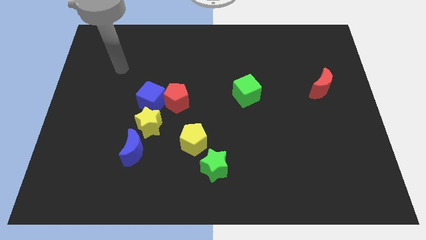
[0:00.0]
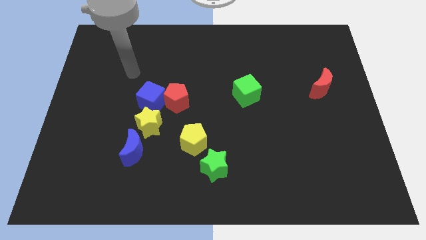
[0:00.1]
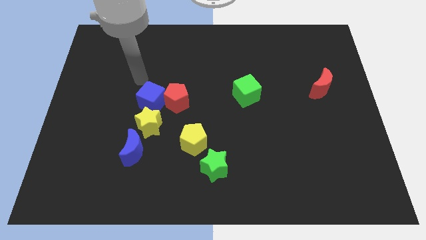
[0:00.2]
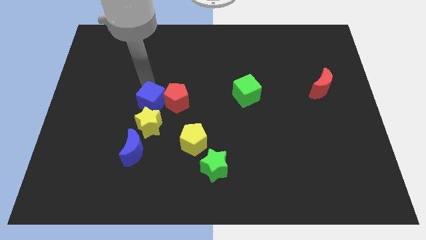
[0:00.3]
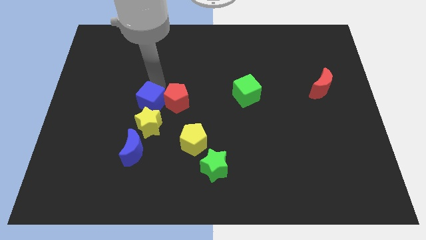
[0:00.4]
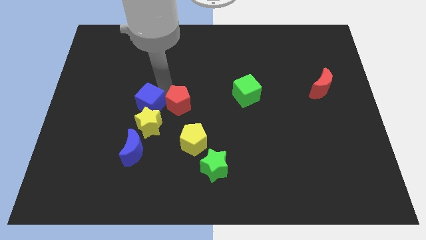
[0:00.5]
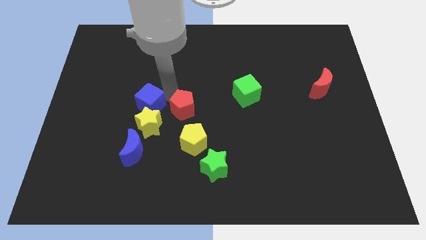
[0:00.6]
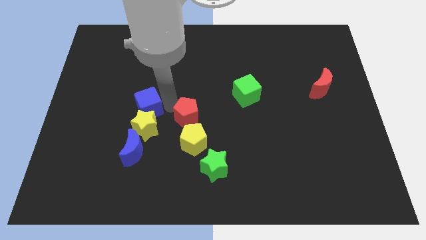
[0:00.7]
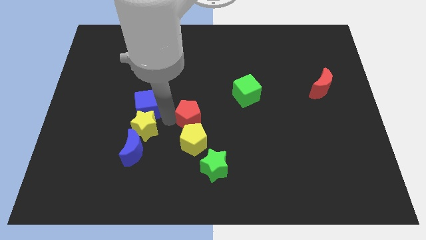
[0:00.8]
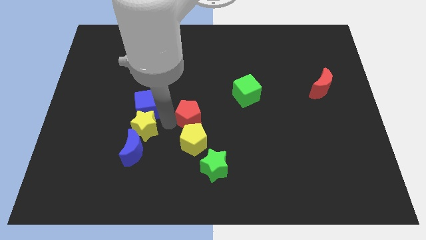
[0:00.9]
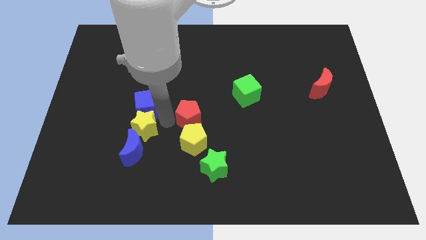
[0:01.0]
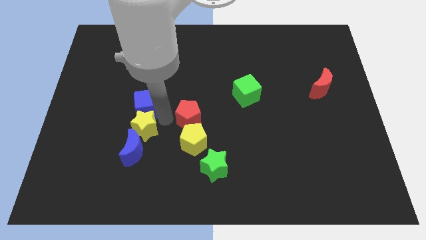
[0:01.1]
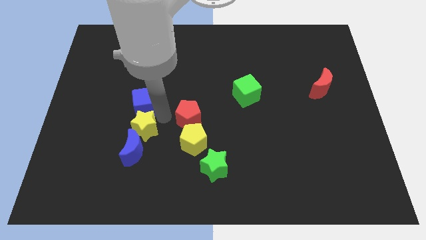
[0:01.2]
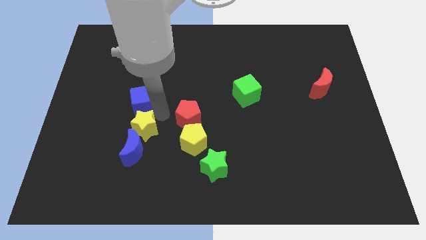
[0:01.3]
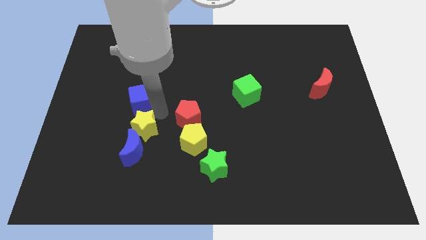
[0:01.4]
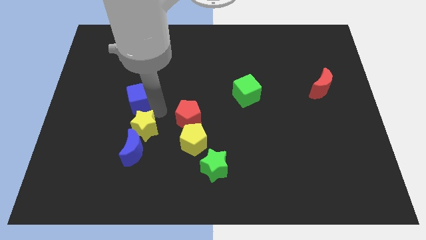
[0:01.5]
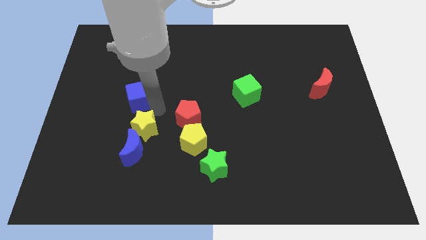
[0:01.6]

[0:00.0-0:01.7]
move the blue cube away from the red pentagon and yellow star

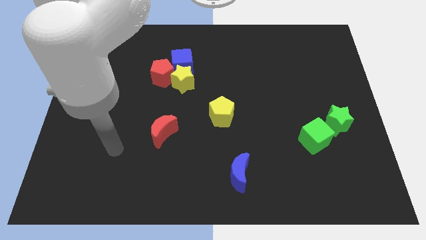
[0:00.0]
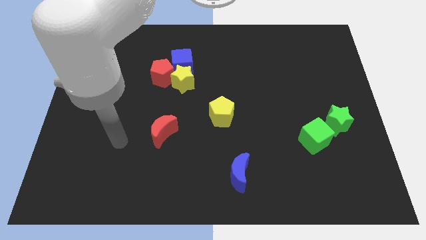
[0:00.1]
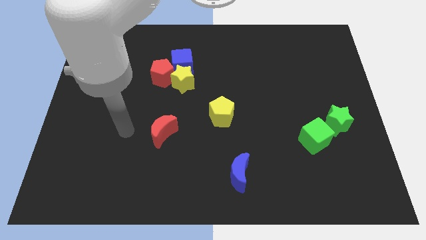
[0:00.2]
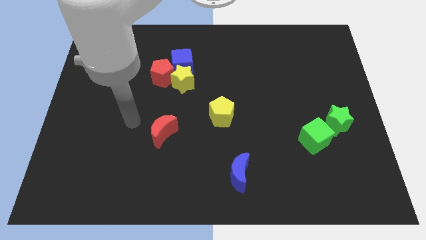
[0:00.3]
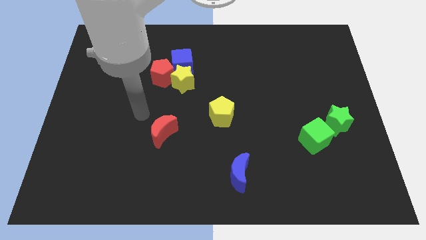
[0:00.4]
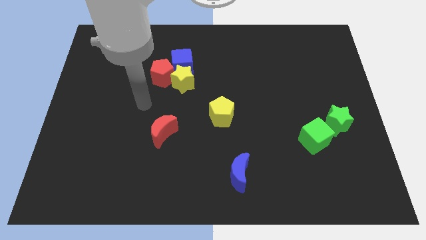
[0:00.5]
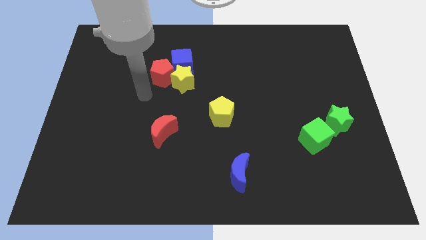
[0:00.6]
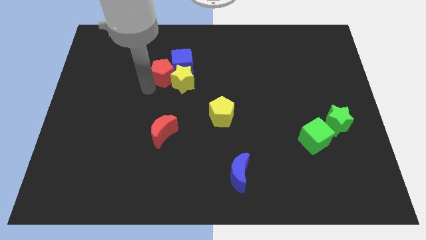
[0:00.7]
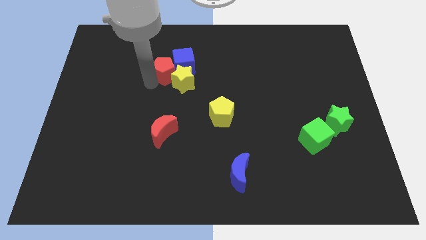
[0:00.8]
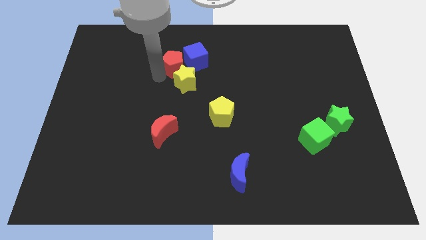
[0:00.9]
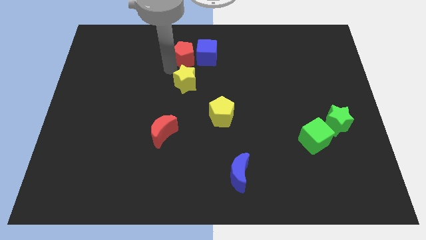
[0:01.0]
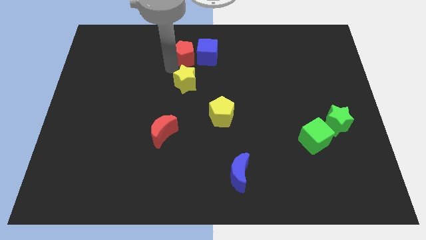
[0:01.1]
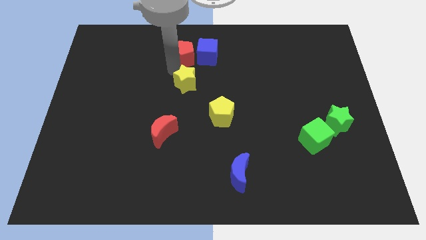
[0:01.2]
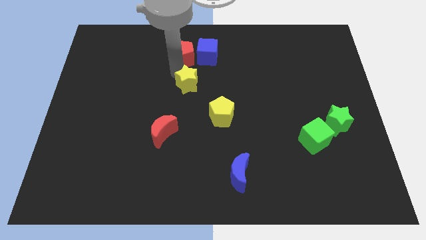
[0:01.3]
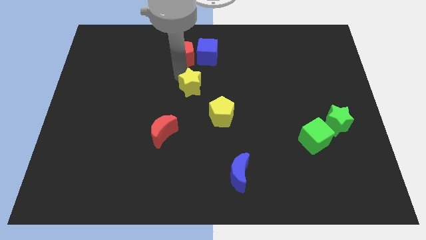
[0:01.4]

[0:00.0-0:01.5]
move the yellow star away from the blue cube and red pentagon

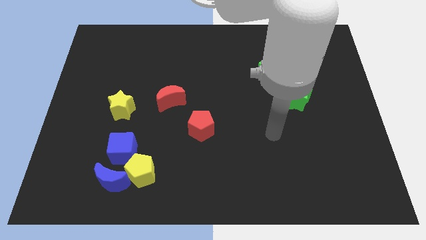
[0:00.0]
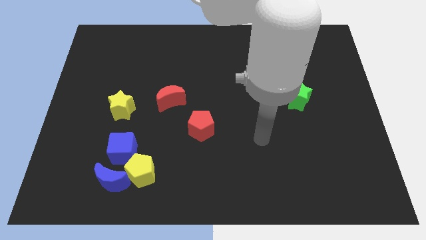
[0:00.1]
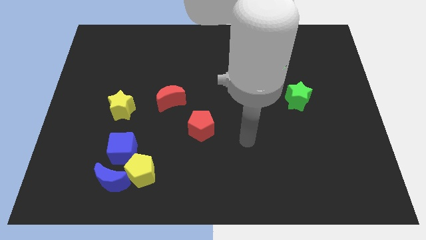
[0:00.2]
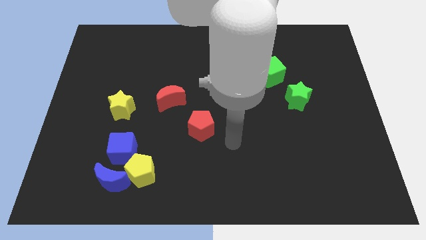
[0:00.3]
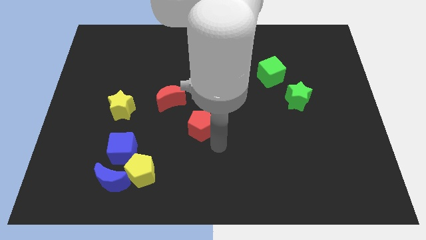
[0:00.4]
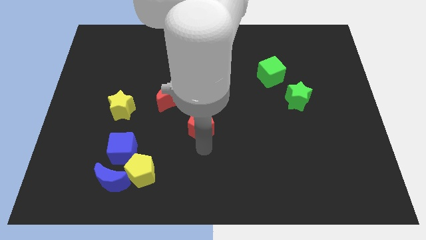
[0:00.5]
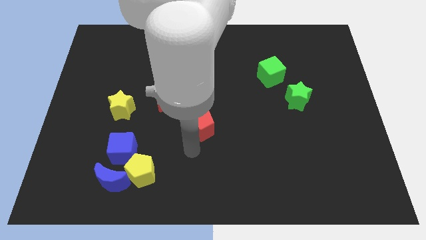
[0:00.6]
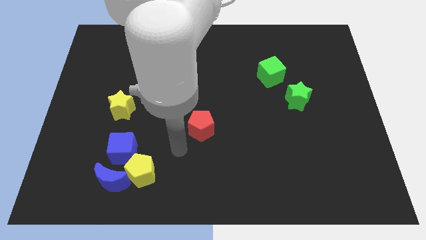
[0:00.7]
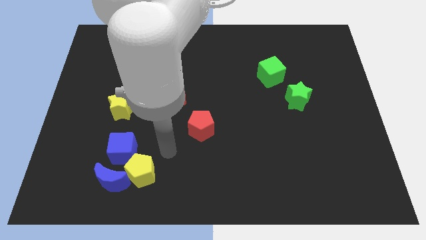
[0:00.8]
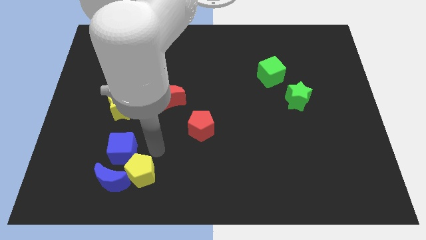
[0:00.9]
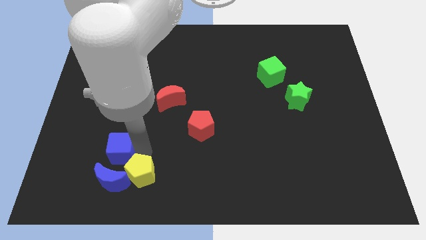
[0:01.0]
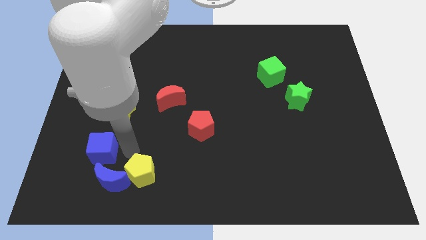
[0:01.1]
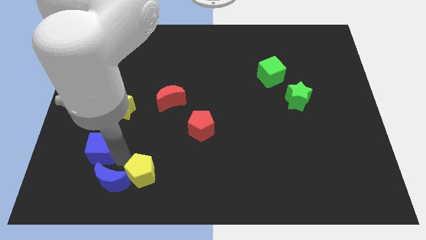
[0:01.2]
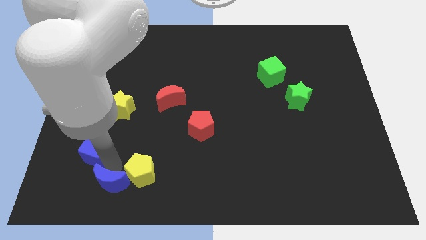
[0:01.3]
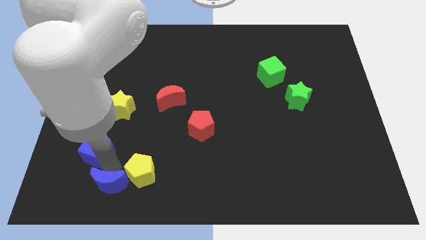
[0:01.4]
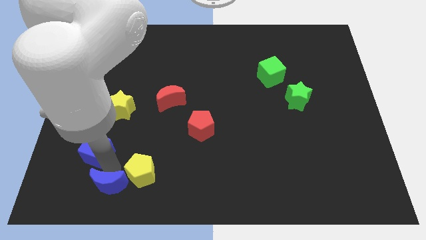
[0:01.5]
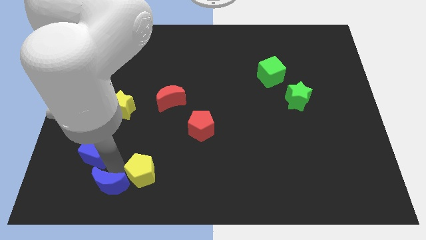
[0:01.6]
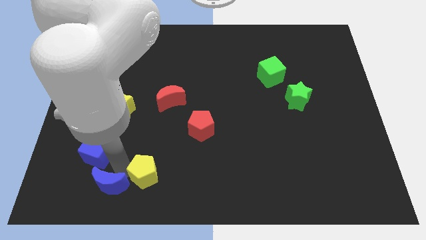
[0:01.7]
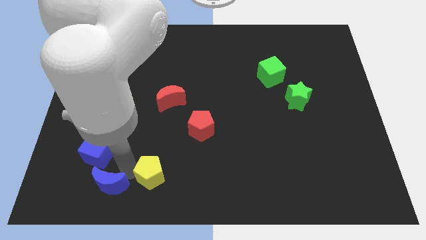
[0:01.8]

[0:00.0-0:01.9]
separate the yellow pentagon from the blue moon and blue cube

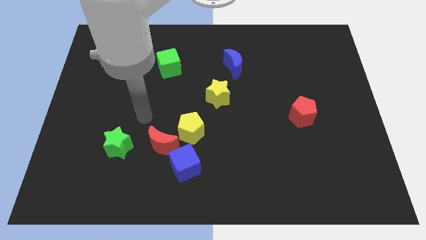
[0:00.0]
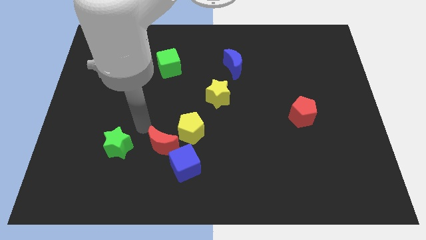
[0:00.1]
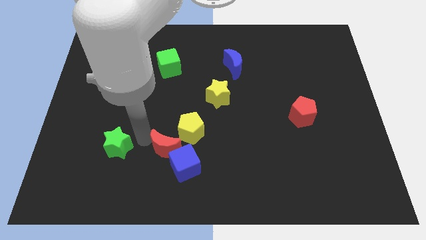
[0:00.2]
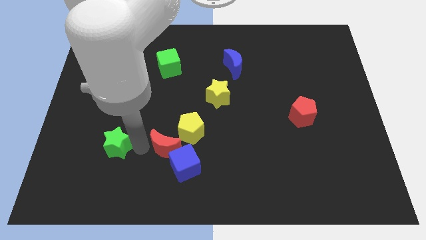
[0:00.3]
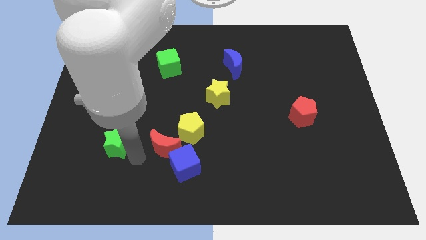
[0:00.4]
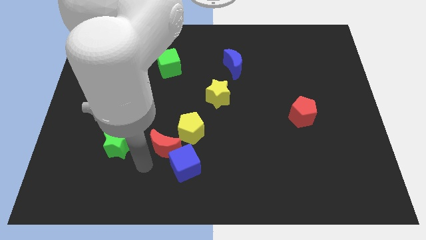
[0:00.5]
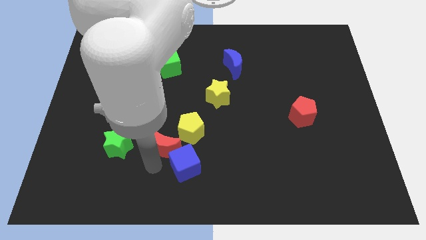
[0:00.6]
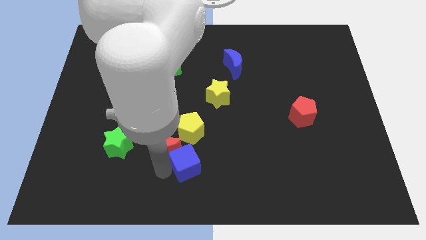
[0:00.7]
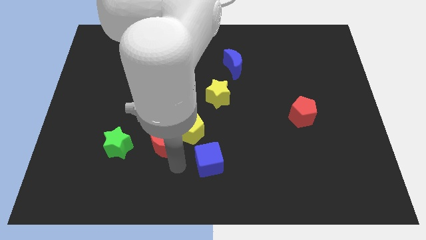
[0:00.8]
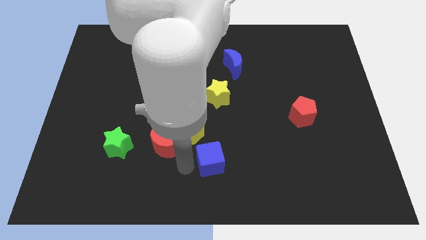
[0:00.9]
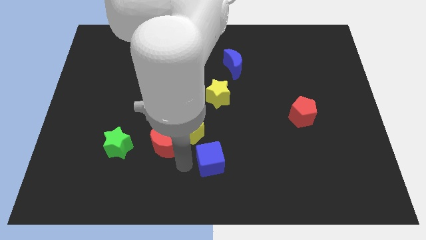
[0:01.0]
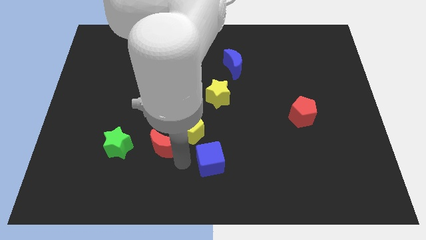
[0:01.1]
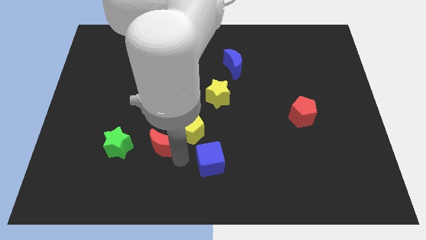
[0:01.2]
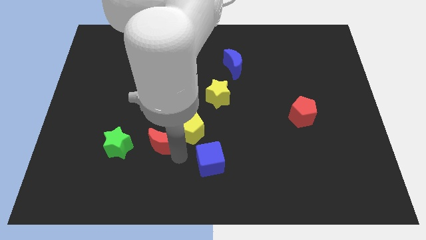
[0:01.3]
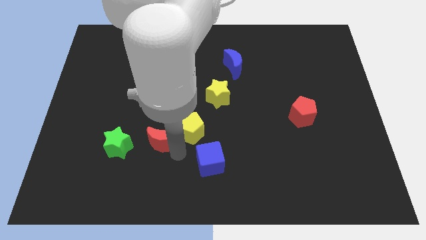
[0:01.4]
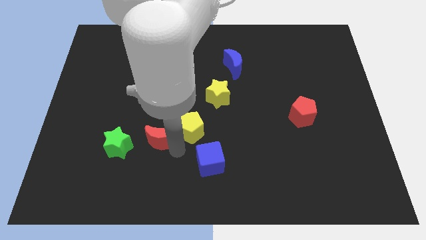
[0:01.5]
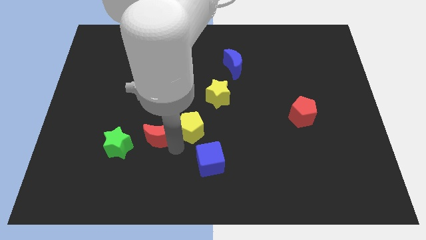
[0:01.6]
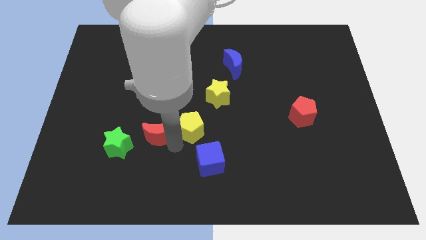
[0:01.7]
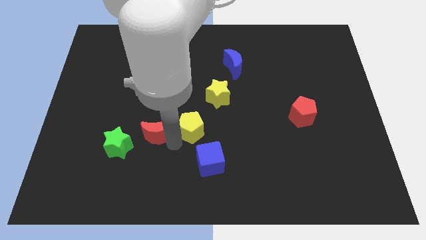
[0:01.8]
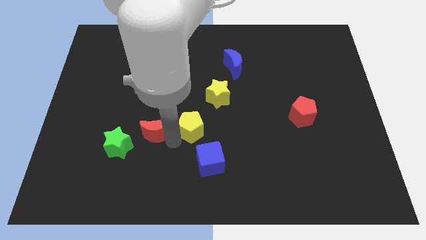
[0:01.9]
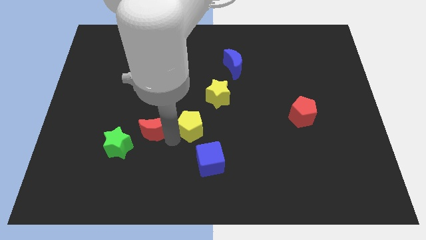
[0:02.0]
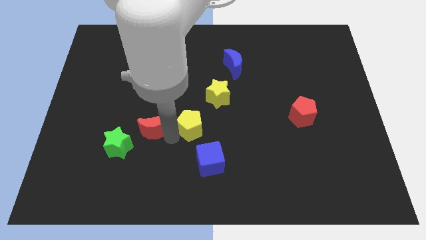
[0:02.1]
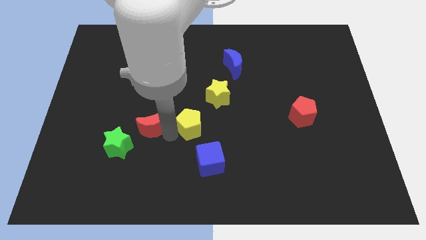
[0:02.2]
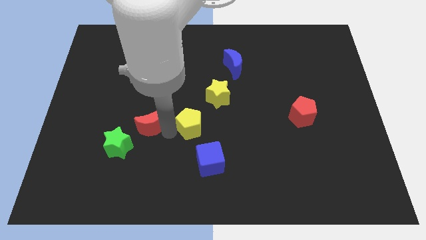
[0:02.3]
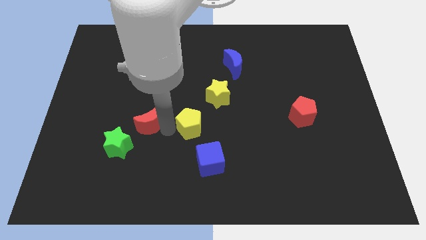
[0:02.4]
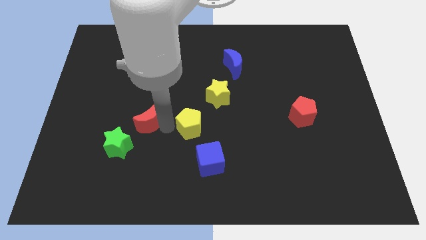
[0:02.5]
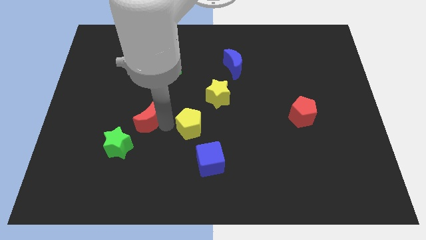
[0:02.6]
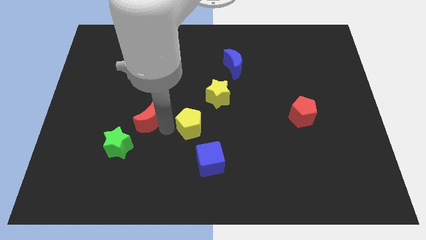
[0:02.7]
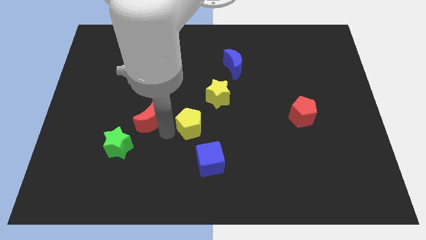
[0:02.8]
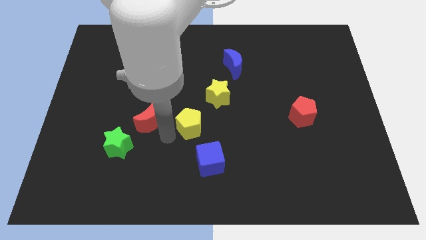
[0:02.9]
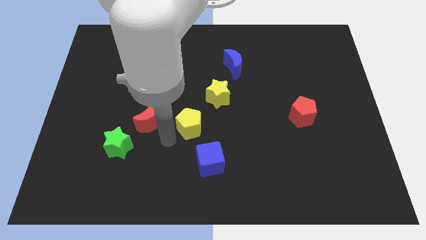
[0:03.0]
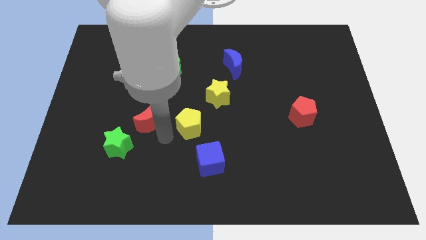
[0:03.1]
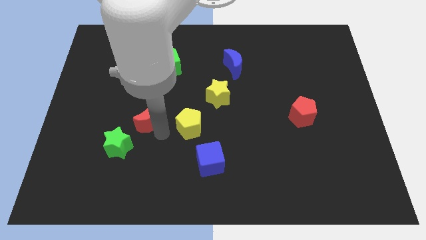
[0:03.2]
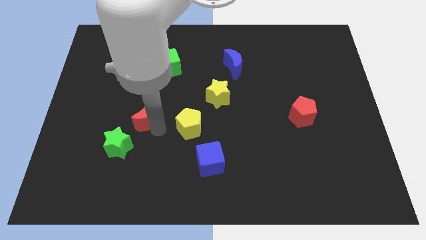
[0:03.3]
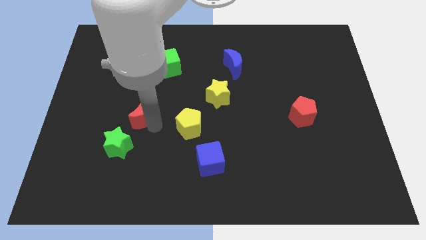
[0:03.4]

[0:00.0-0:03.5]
move the red moon away from the group

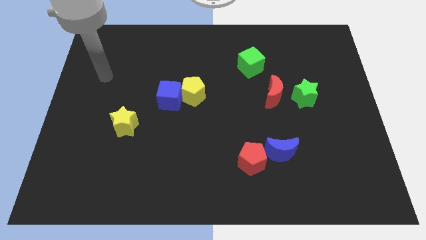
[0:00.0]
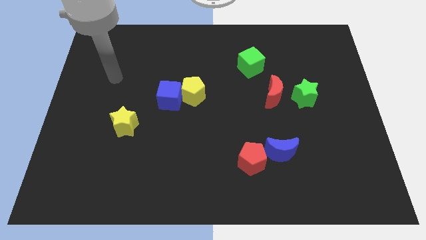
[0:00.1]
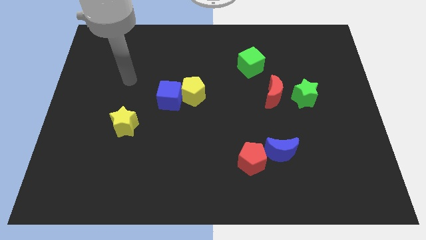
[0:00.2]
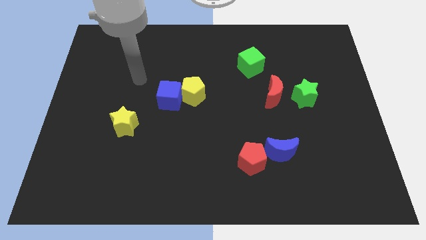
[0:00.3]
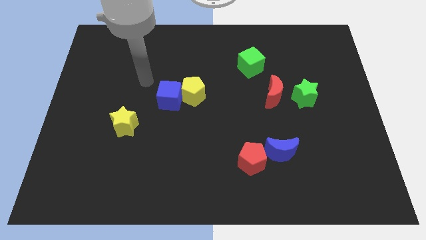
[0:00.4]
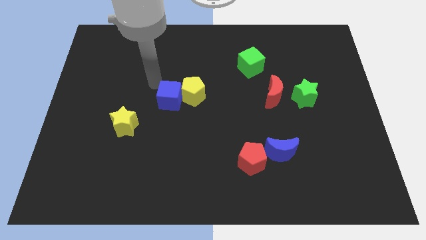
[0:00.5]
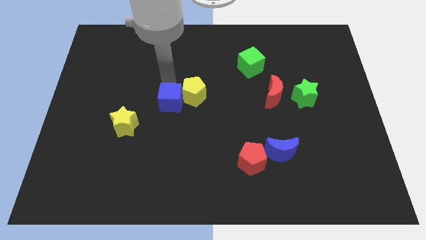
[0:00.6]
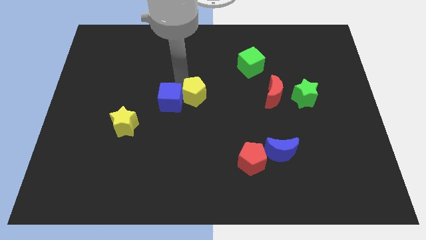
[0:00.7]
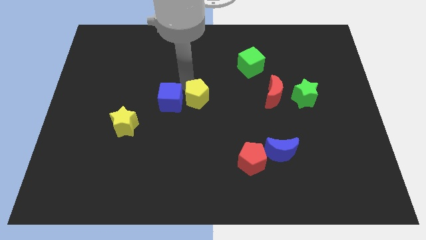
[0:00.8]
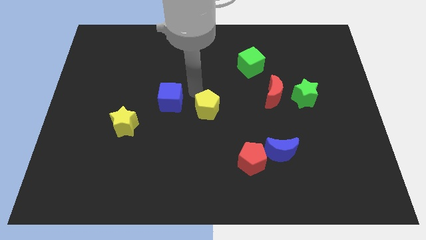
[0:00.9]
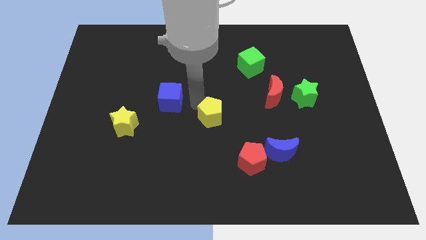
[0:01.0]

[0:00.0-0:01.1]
pull the blue cube apart from the yellow pentagon
